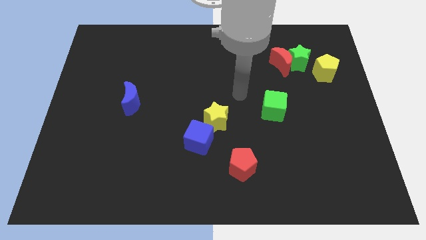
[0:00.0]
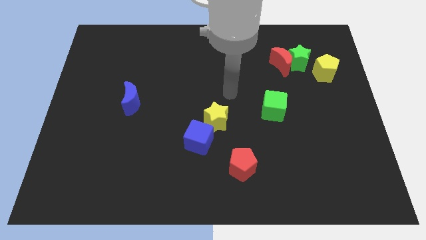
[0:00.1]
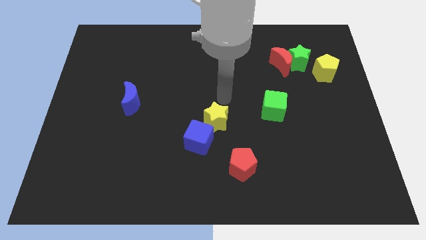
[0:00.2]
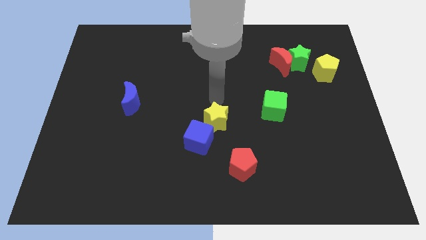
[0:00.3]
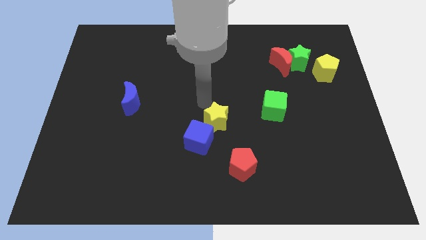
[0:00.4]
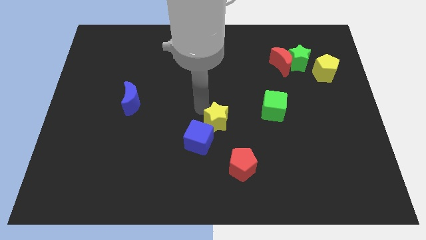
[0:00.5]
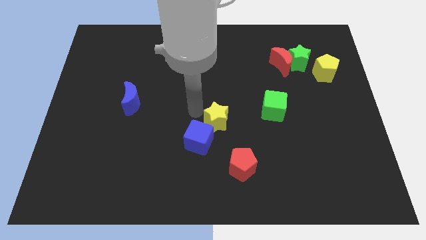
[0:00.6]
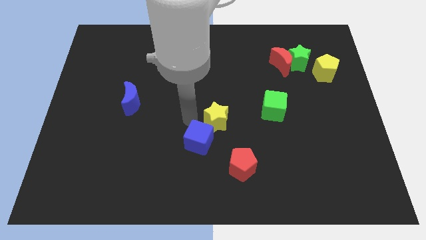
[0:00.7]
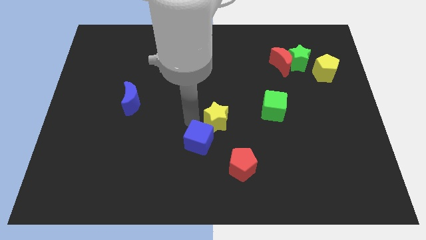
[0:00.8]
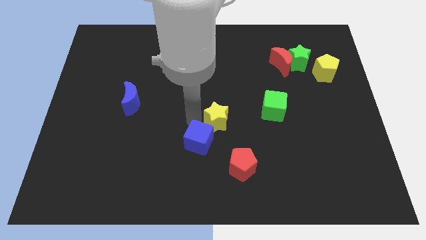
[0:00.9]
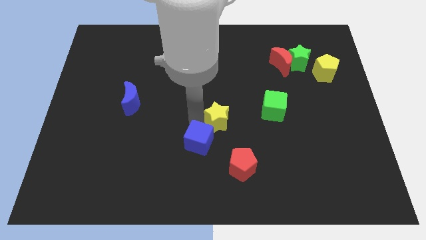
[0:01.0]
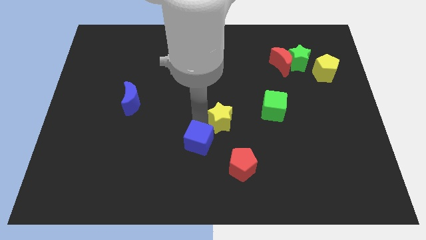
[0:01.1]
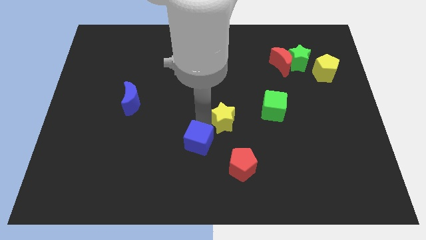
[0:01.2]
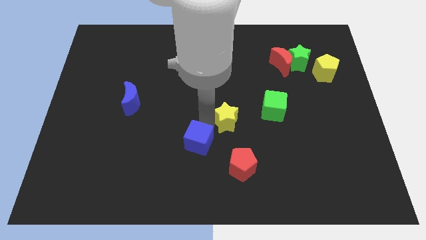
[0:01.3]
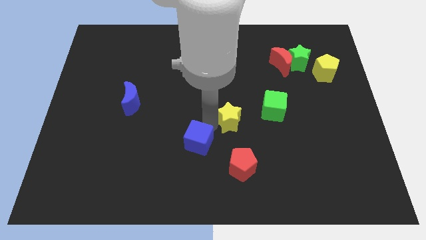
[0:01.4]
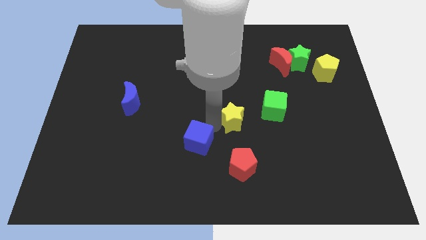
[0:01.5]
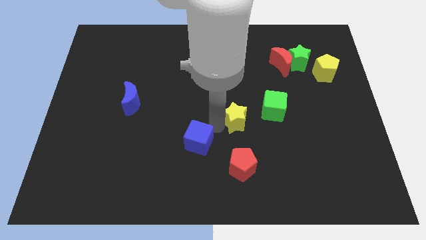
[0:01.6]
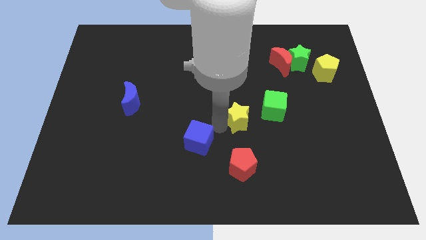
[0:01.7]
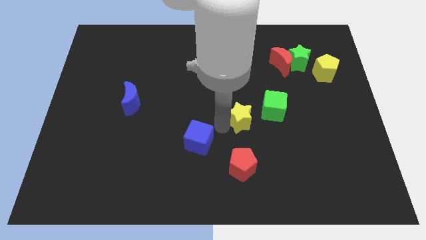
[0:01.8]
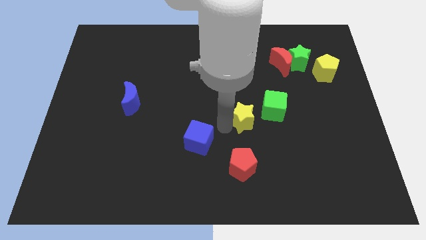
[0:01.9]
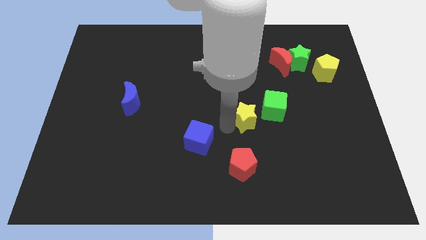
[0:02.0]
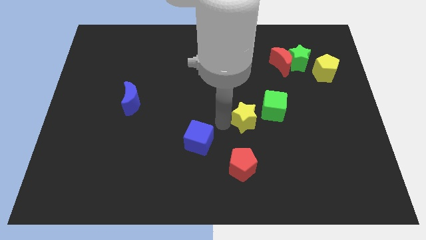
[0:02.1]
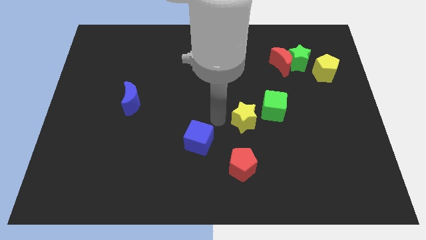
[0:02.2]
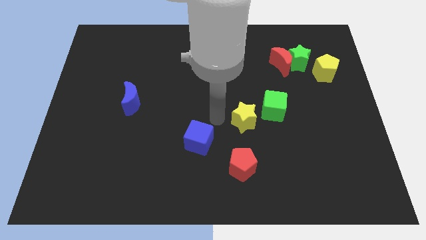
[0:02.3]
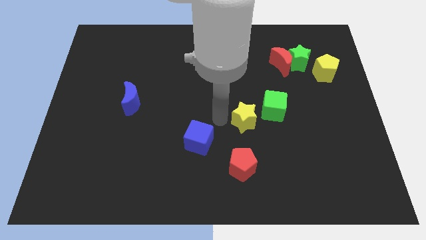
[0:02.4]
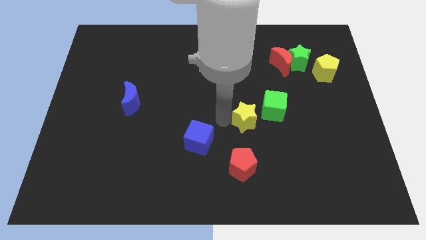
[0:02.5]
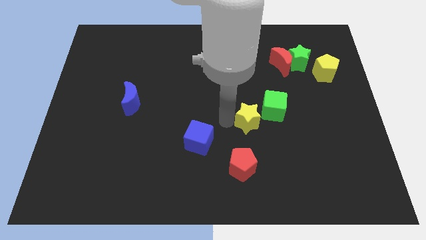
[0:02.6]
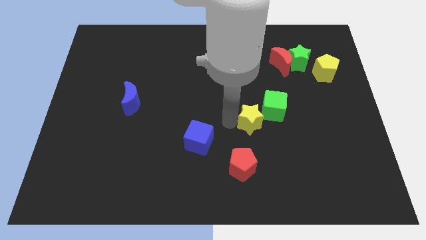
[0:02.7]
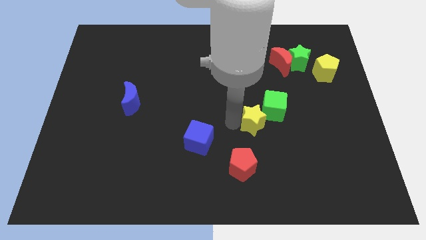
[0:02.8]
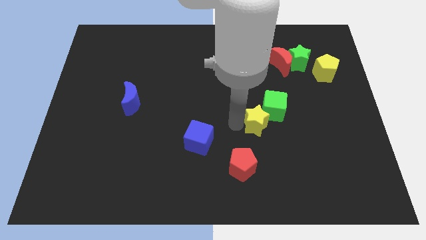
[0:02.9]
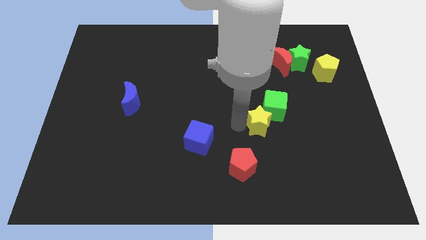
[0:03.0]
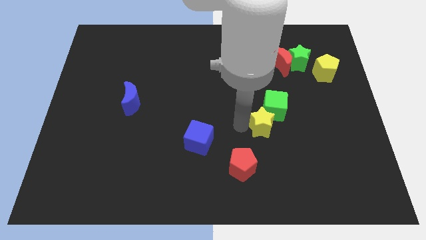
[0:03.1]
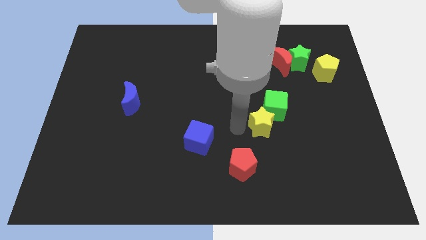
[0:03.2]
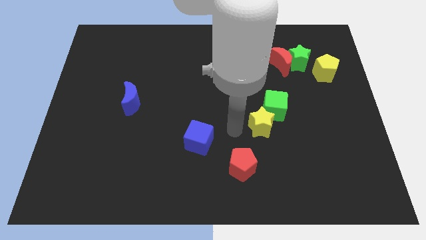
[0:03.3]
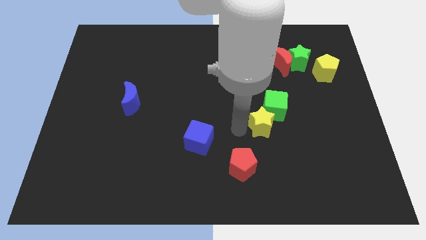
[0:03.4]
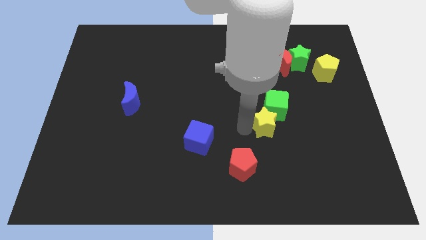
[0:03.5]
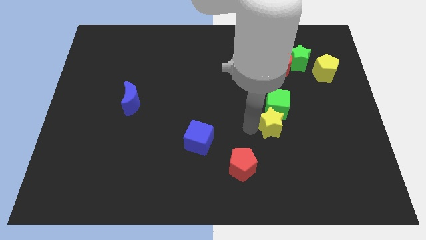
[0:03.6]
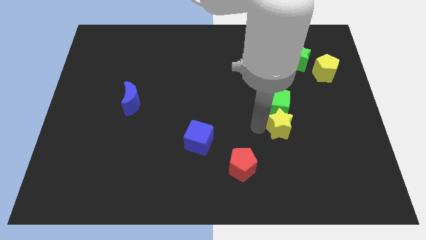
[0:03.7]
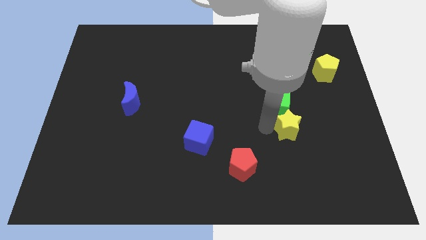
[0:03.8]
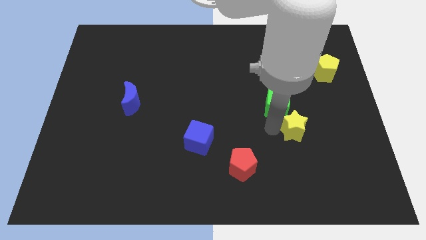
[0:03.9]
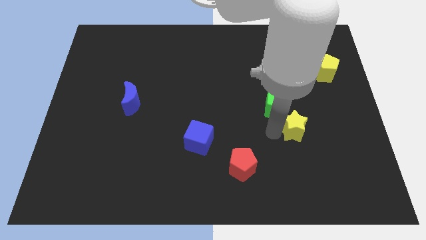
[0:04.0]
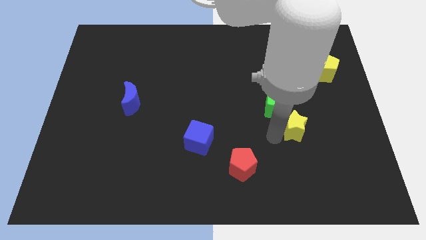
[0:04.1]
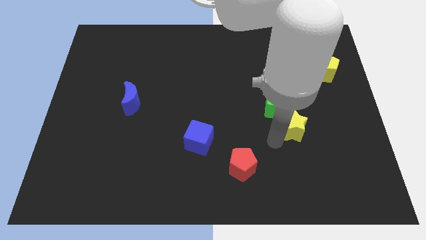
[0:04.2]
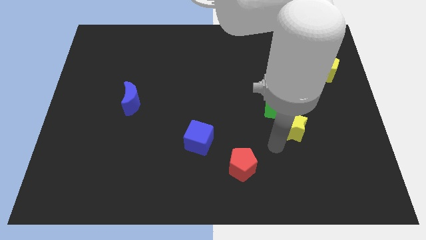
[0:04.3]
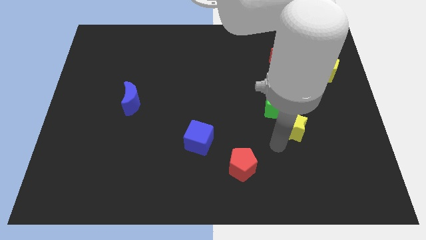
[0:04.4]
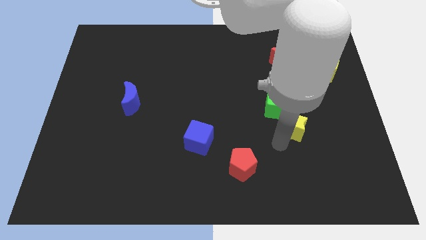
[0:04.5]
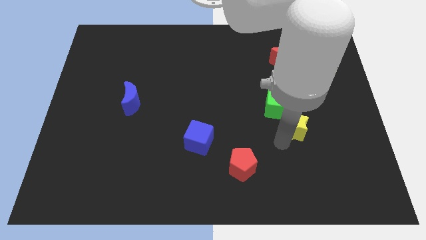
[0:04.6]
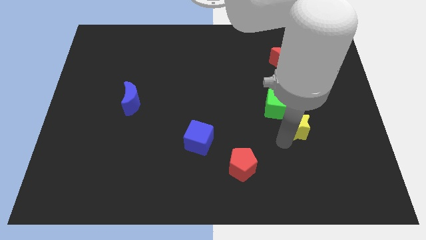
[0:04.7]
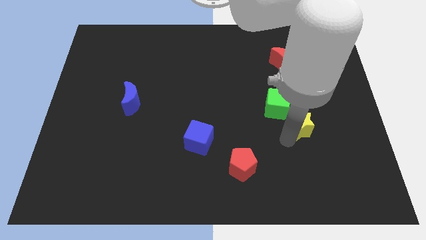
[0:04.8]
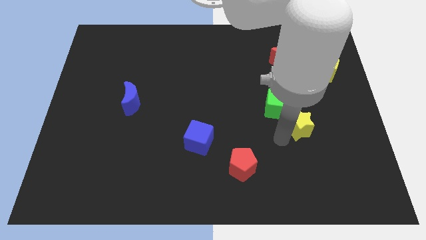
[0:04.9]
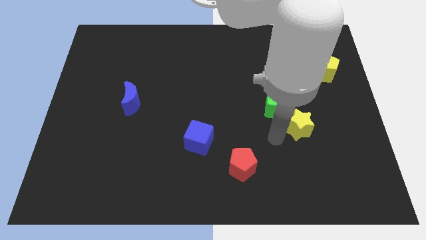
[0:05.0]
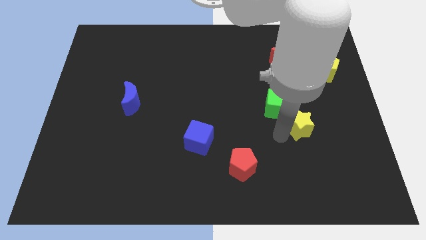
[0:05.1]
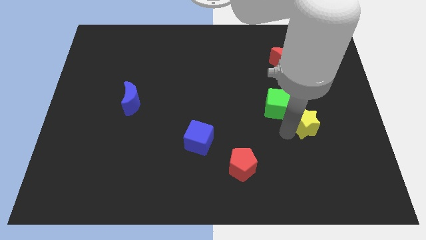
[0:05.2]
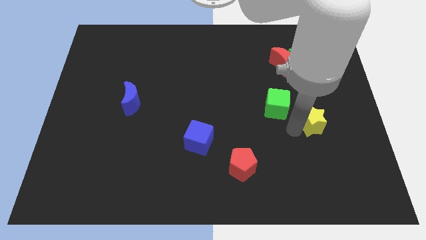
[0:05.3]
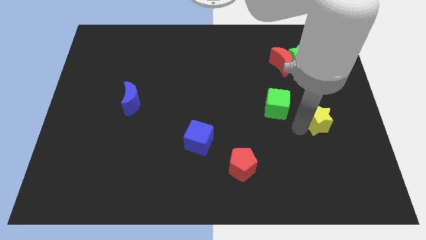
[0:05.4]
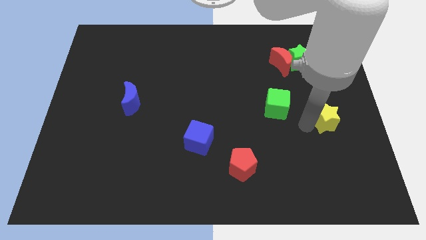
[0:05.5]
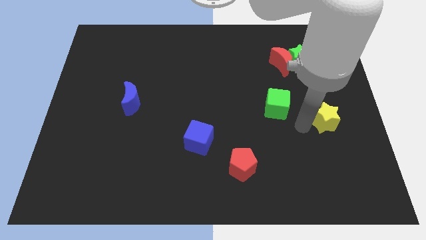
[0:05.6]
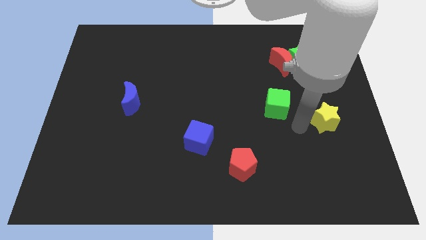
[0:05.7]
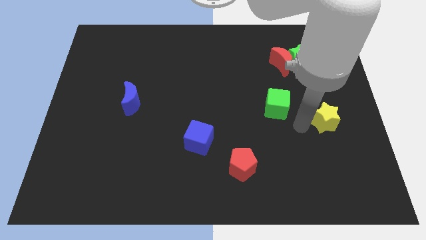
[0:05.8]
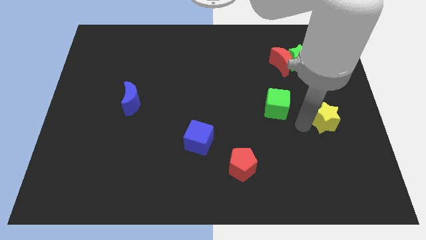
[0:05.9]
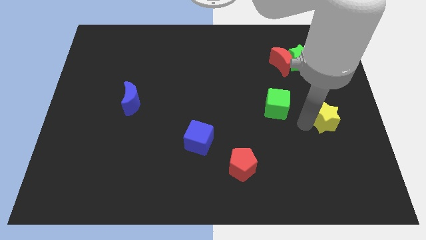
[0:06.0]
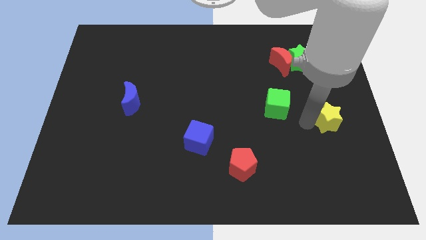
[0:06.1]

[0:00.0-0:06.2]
move the yellow star to the center right
